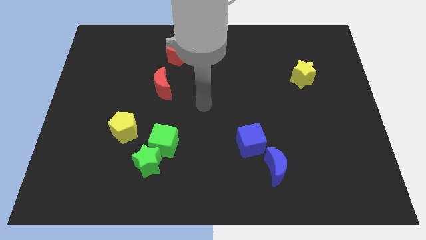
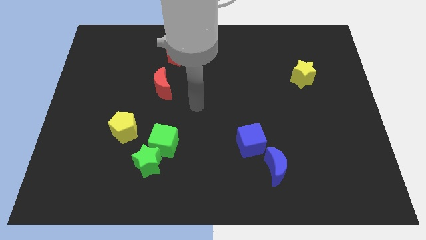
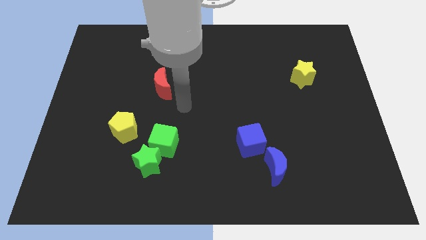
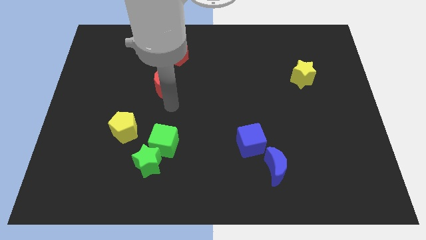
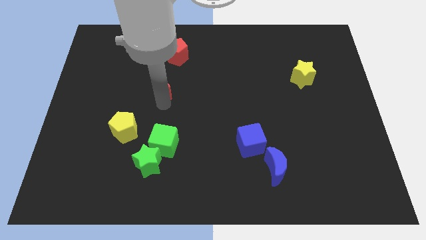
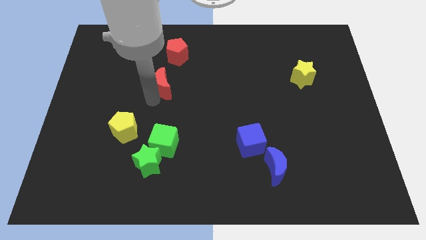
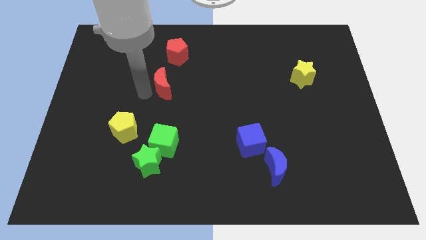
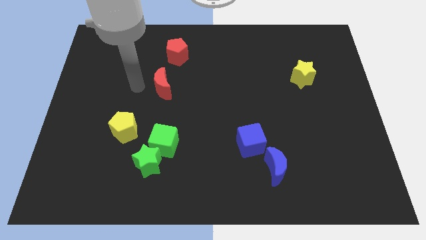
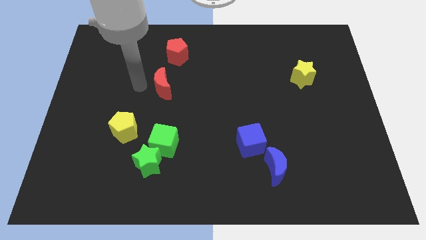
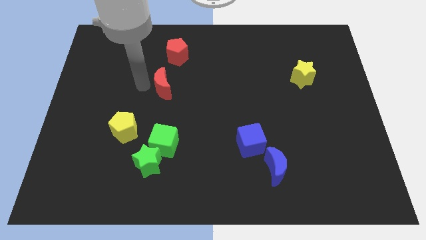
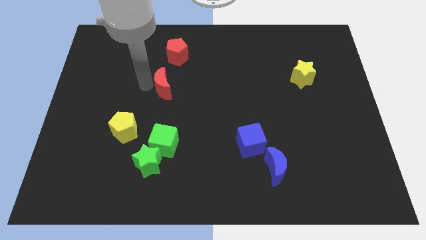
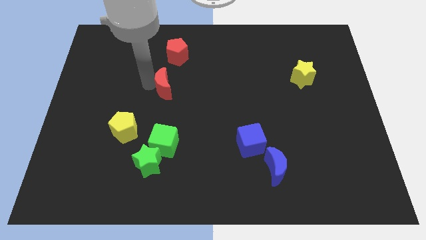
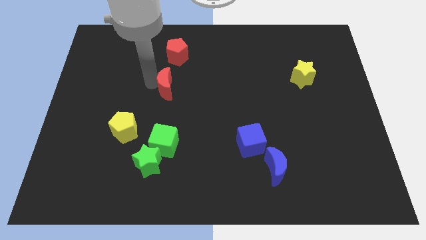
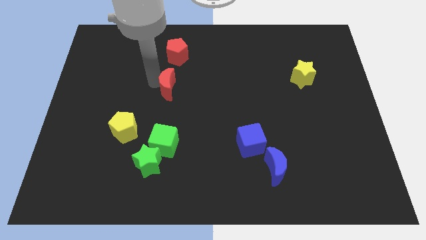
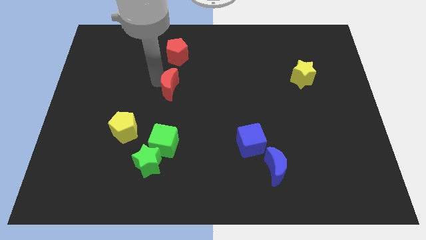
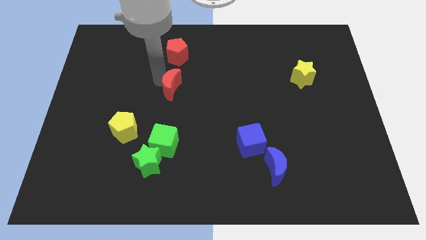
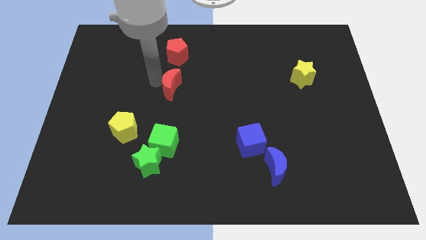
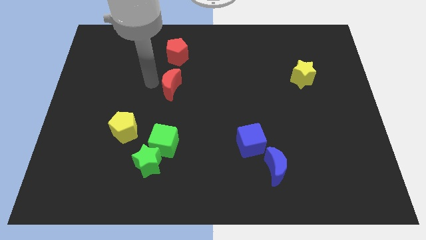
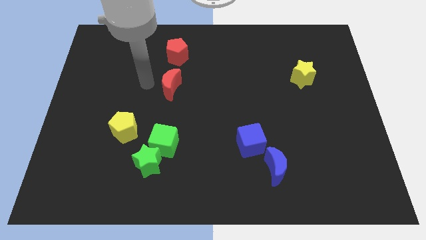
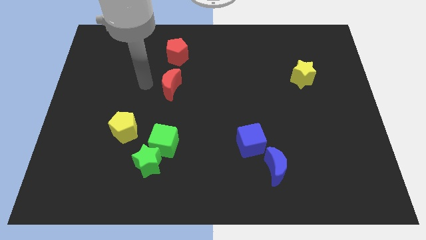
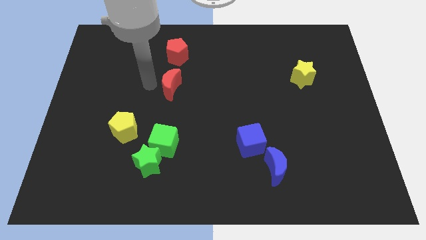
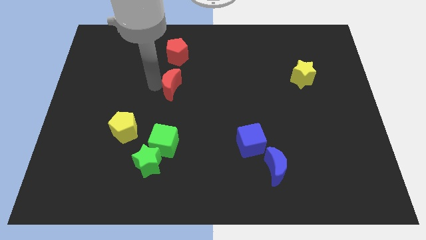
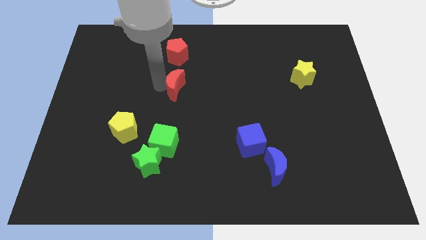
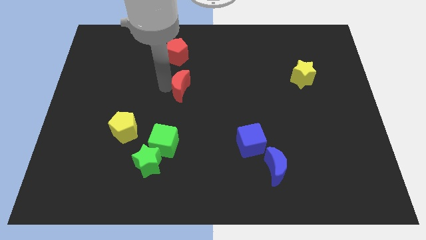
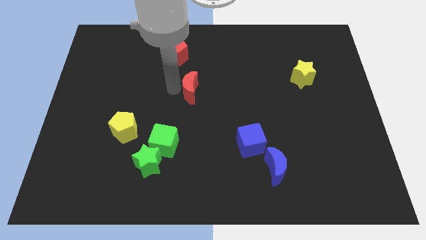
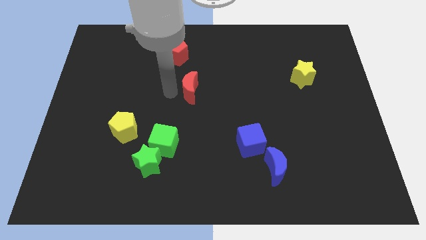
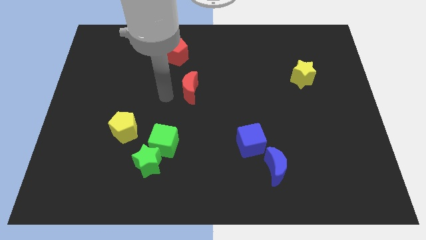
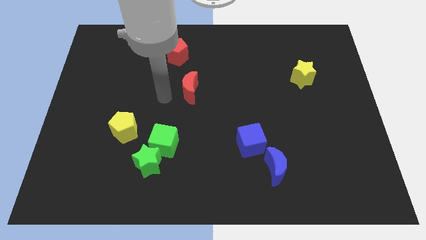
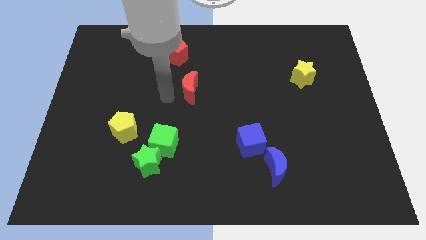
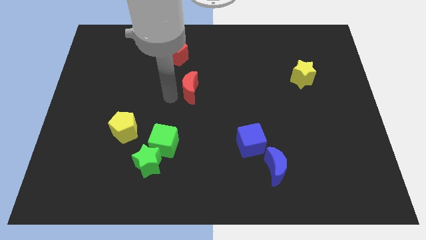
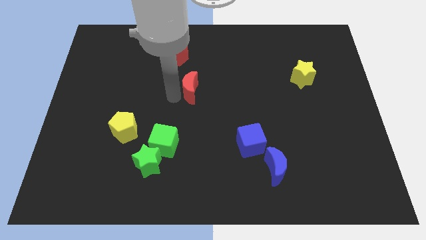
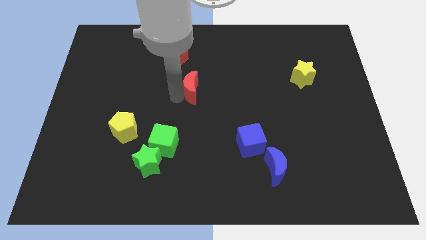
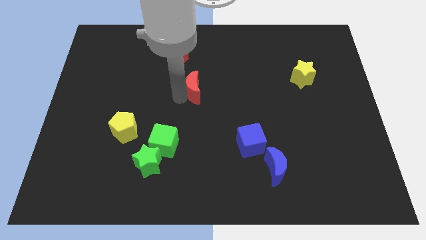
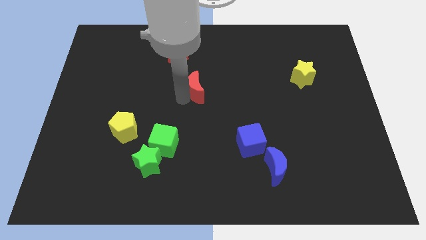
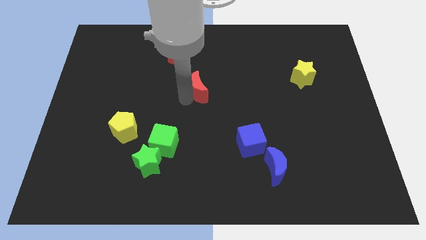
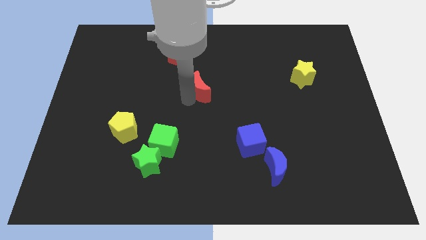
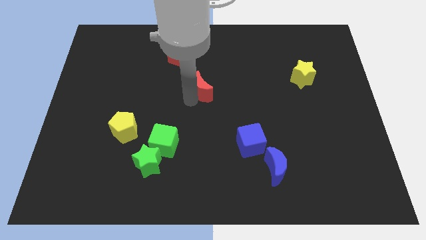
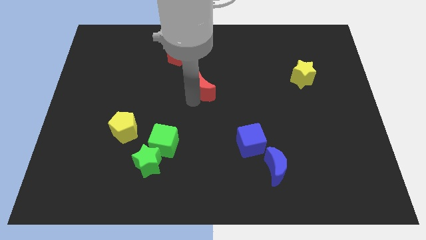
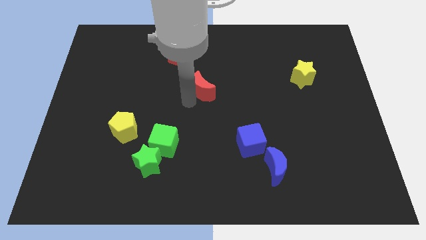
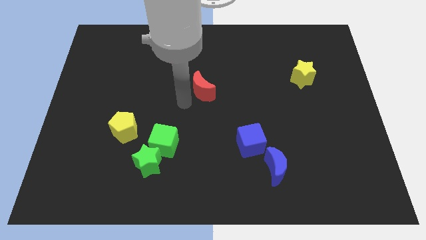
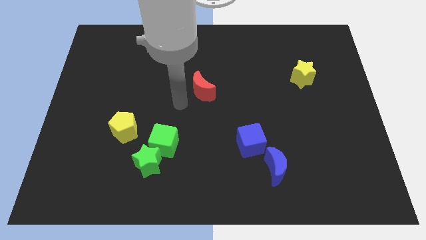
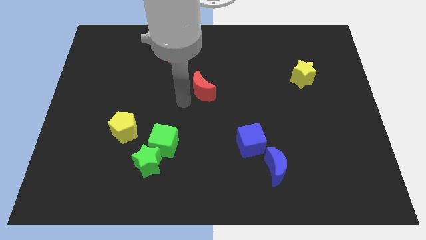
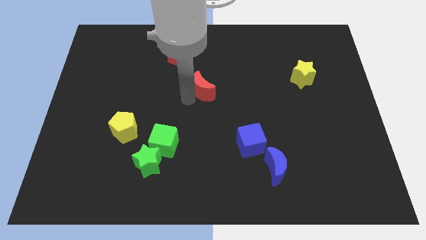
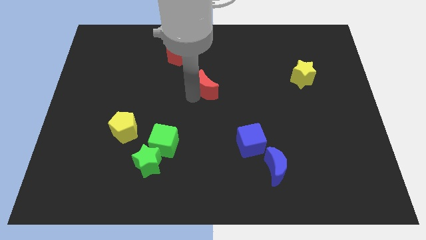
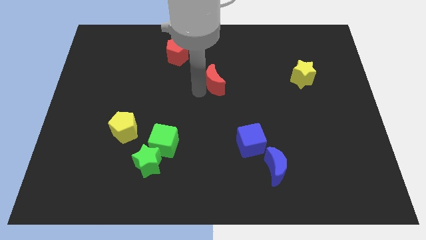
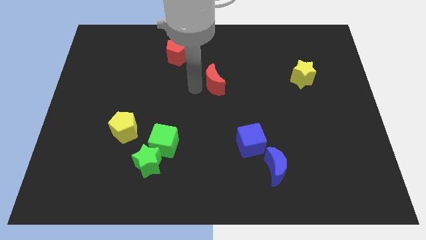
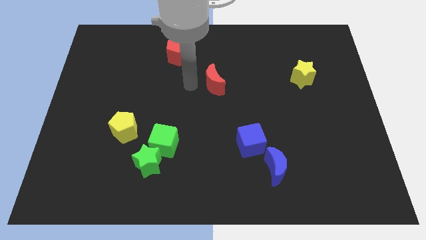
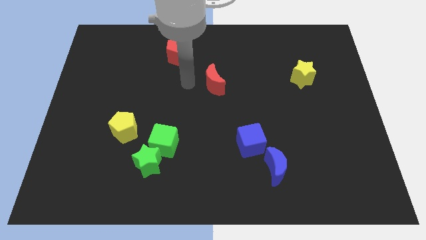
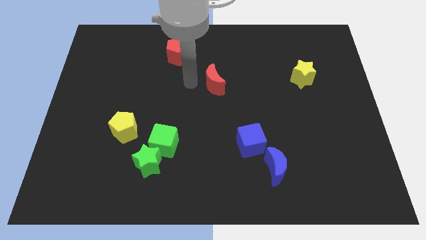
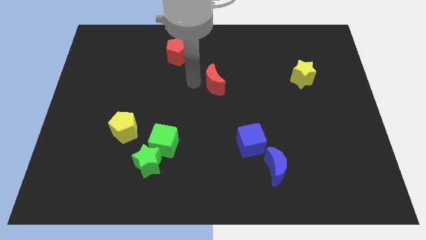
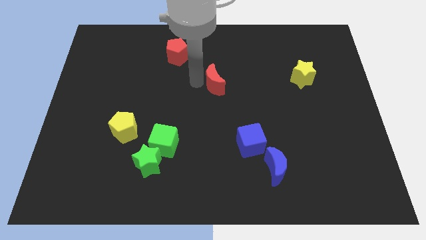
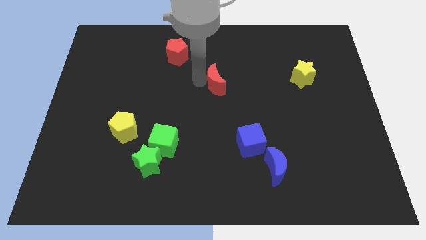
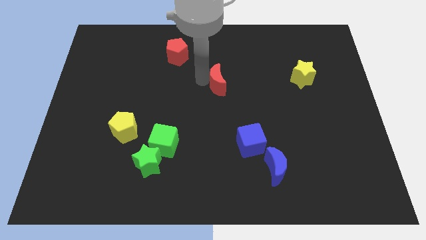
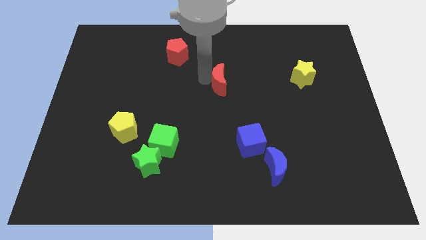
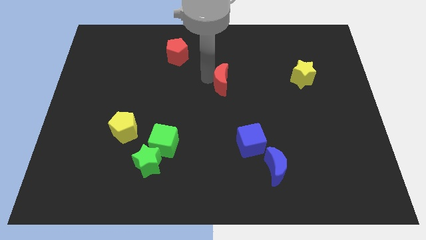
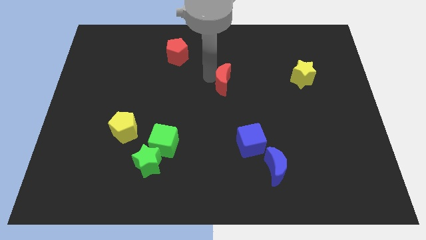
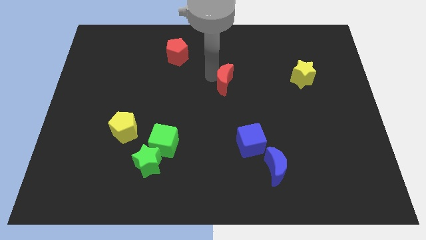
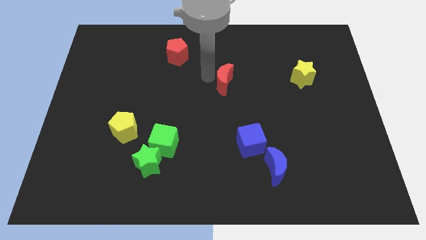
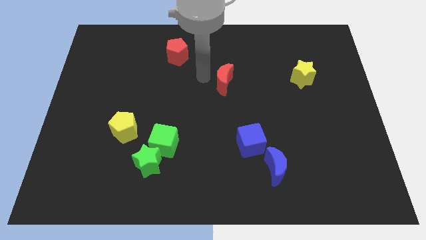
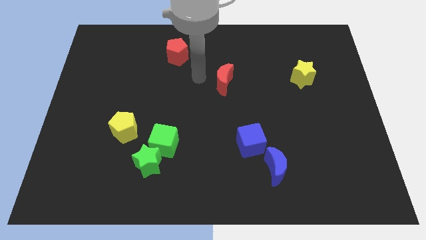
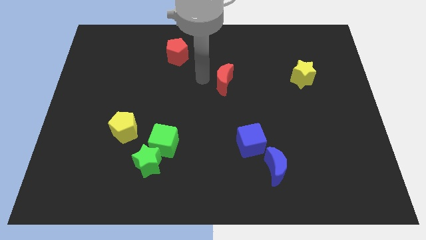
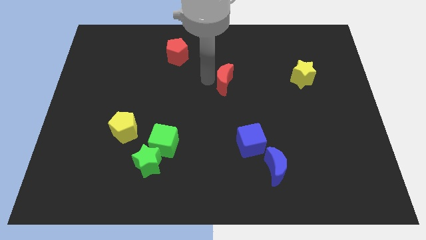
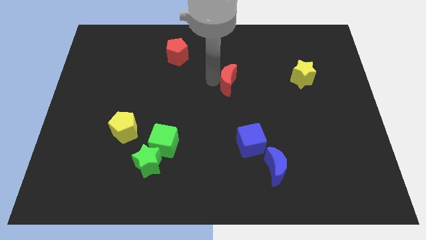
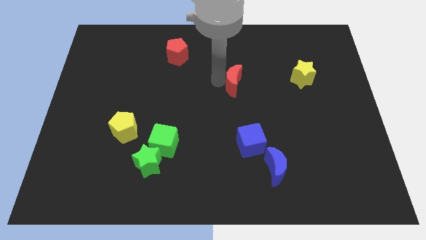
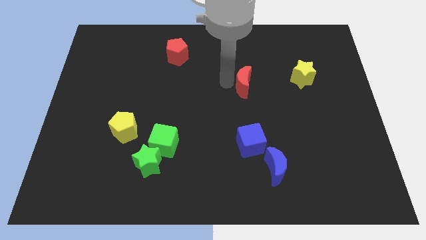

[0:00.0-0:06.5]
move the red moon to the right

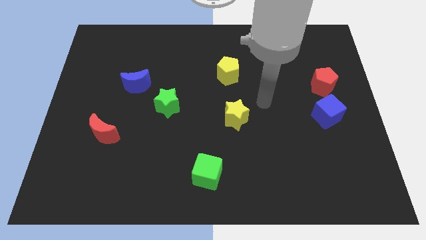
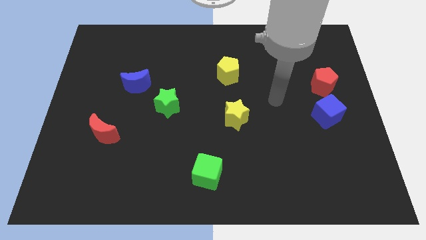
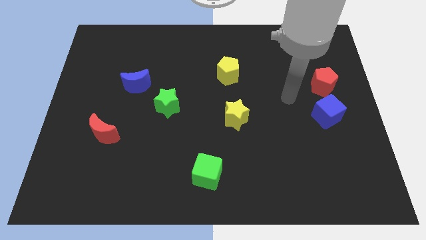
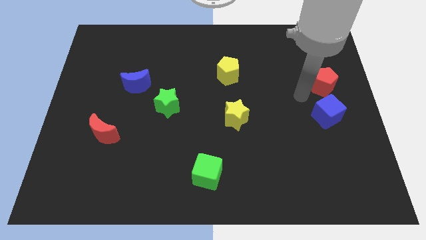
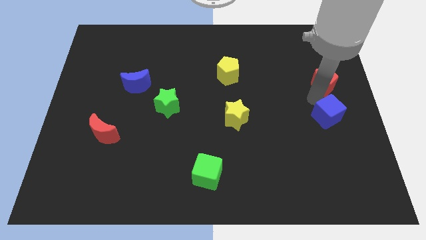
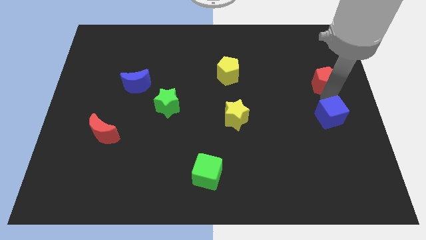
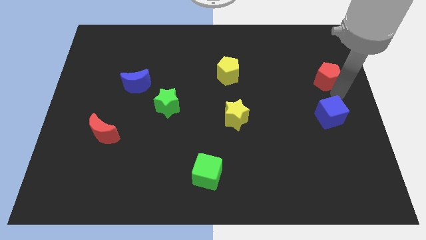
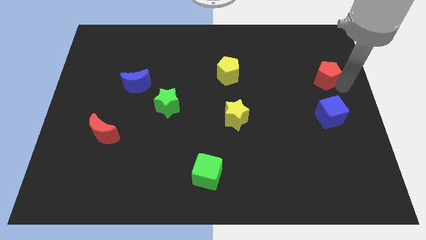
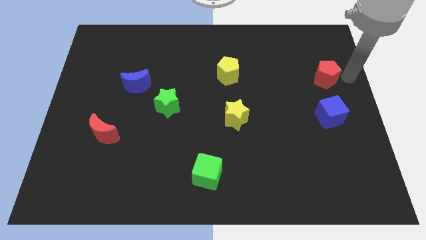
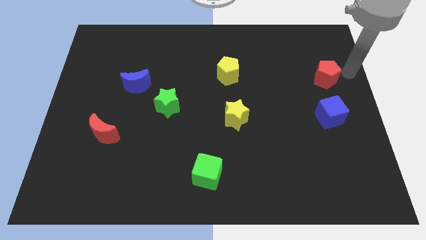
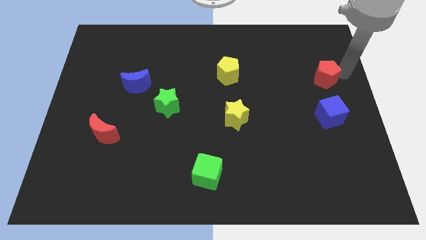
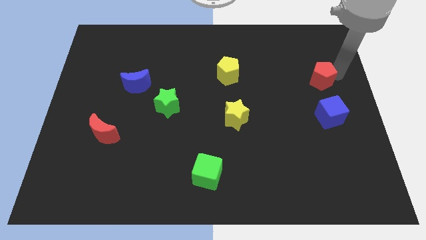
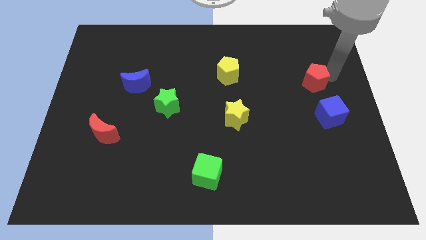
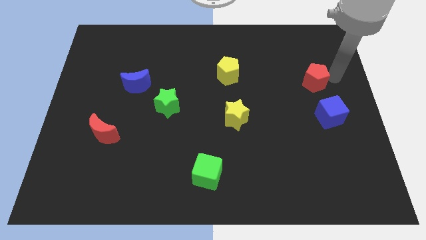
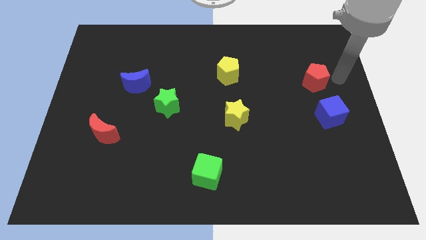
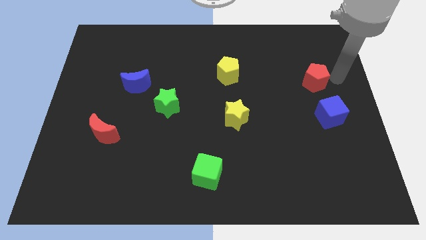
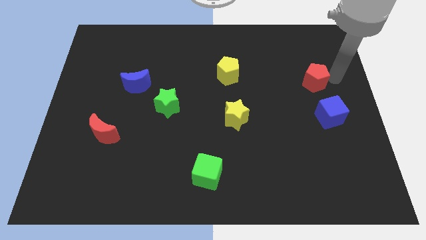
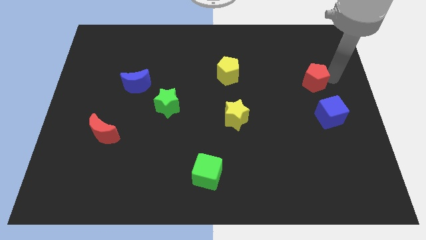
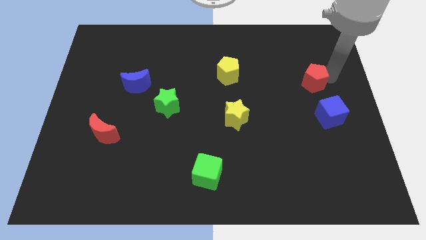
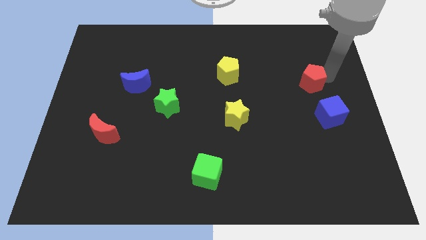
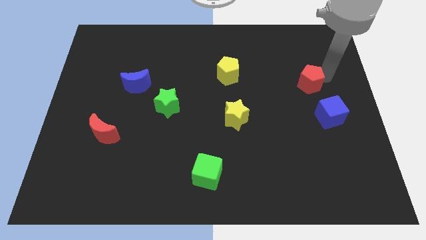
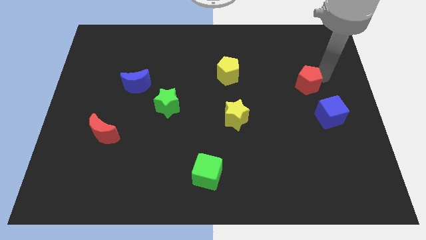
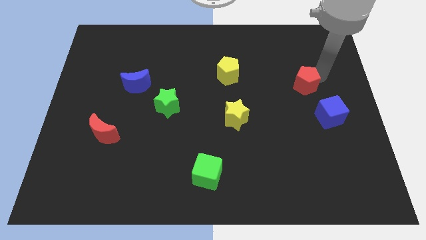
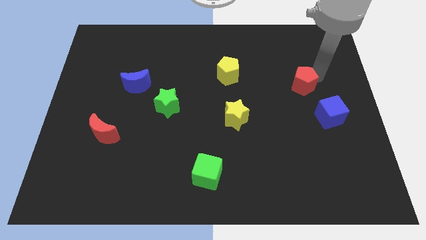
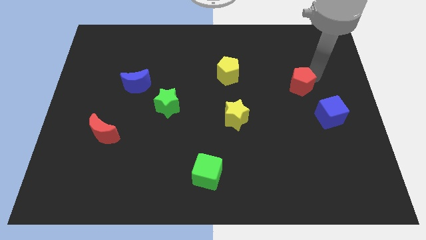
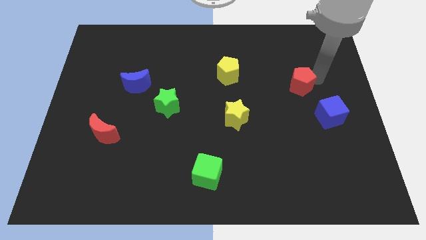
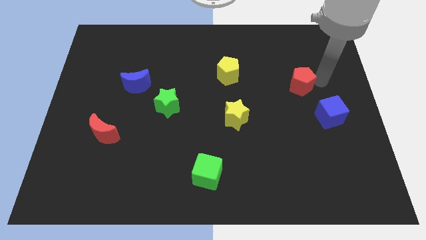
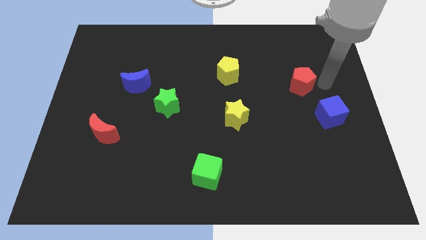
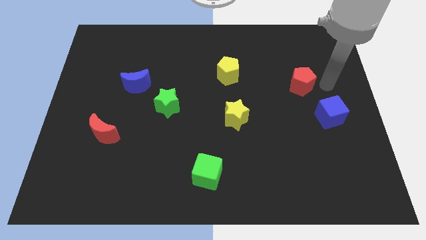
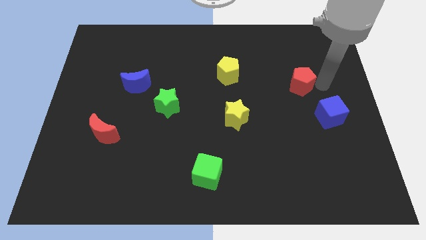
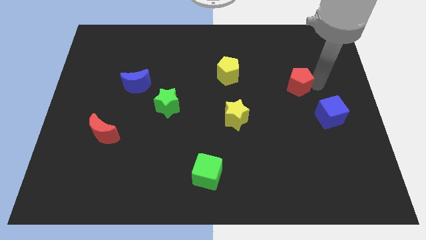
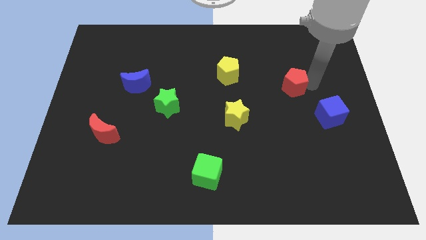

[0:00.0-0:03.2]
move the red pentagon a little bit left
